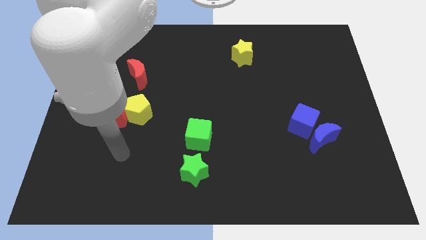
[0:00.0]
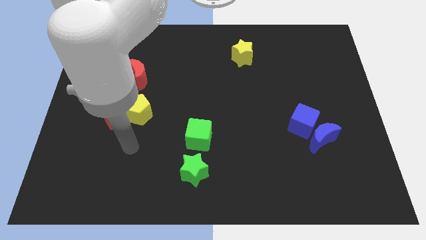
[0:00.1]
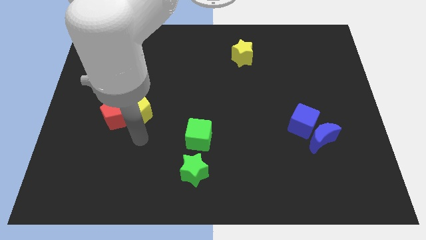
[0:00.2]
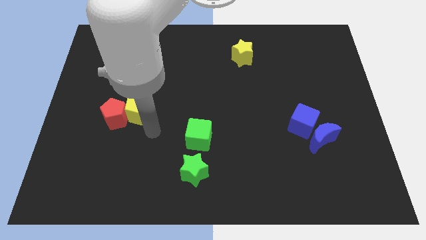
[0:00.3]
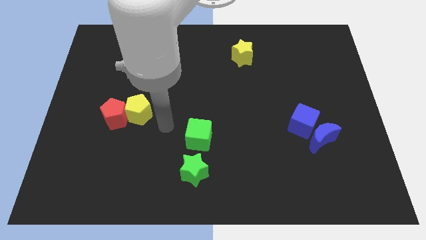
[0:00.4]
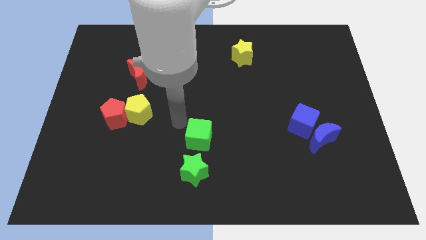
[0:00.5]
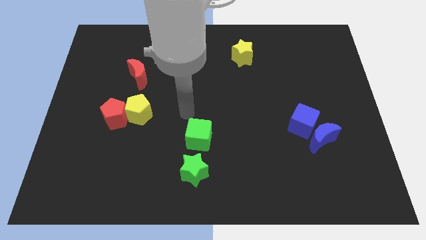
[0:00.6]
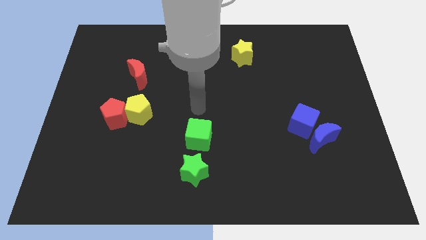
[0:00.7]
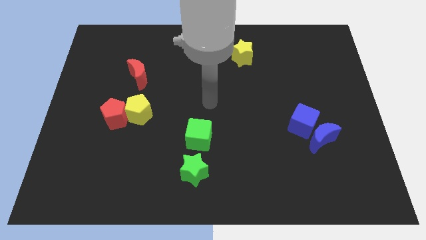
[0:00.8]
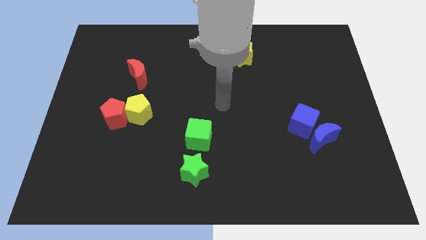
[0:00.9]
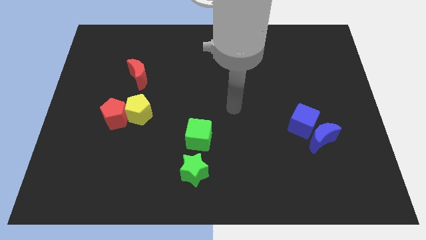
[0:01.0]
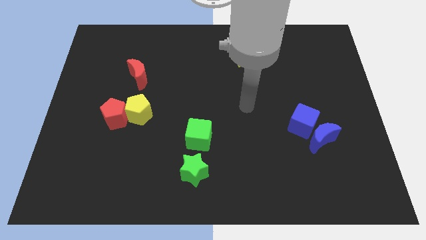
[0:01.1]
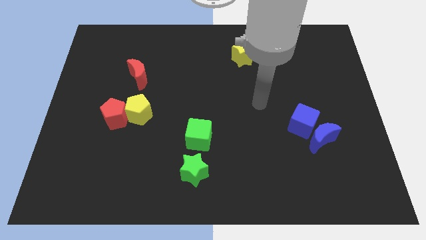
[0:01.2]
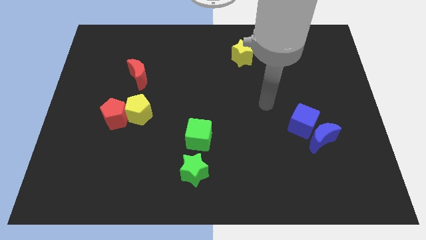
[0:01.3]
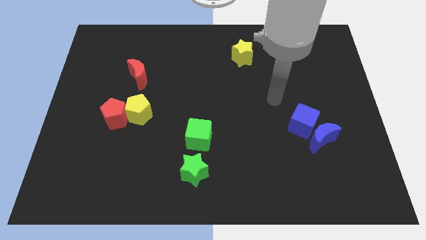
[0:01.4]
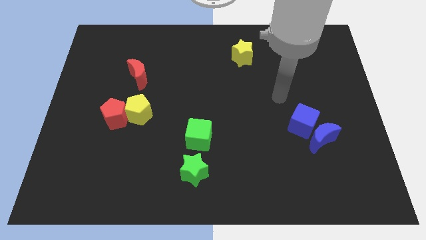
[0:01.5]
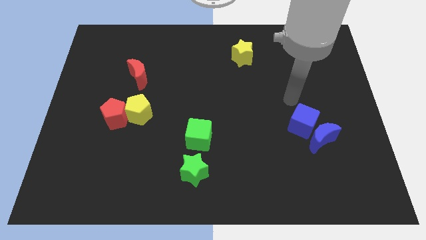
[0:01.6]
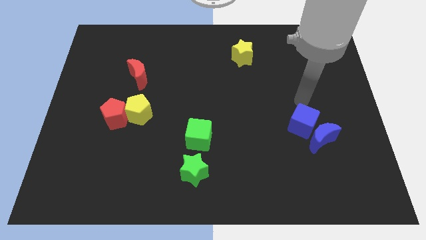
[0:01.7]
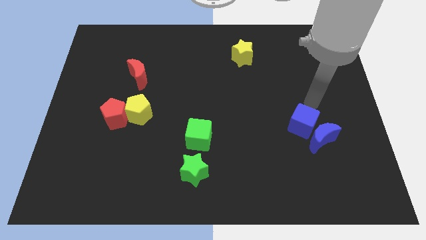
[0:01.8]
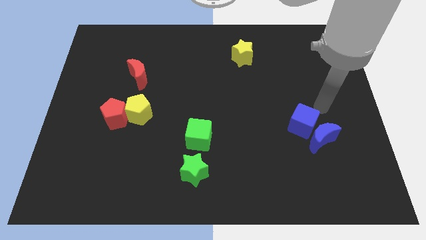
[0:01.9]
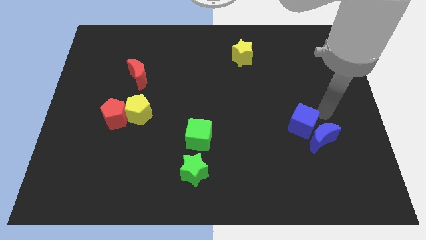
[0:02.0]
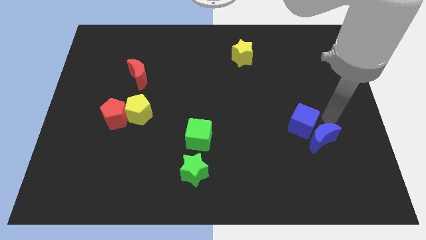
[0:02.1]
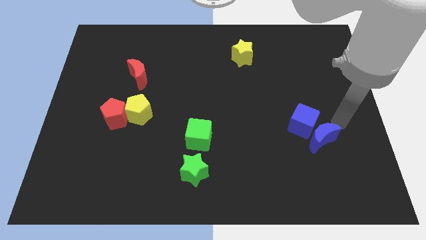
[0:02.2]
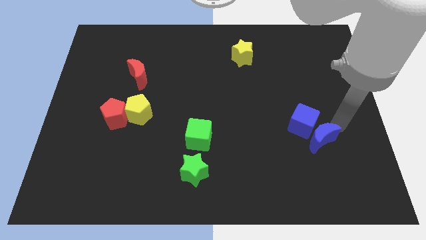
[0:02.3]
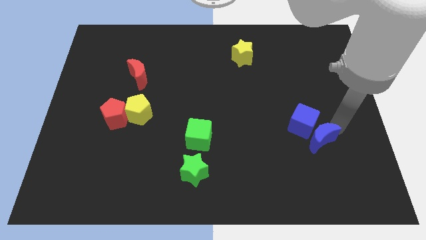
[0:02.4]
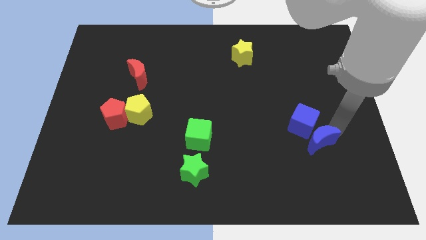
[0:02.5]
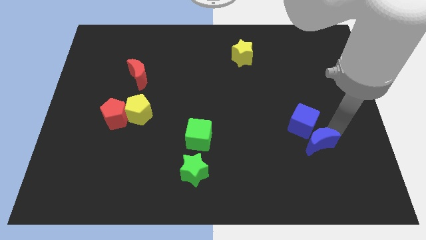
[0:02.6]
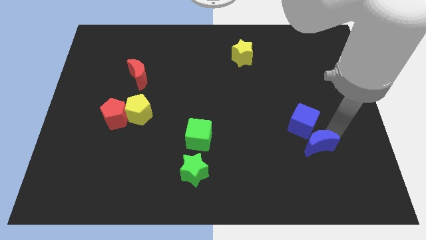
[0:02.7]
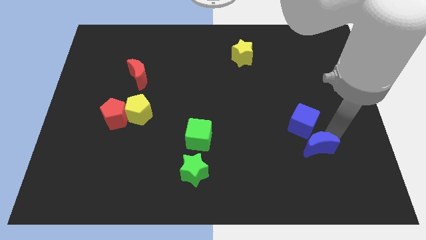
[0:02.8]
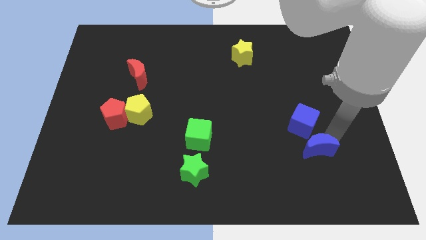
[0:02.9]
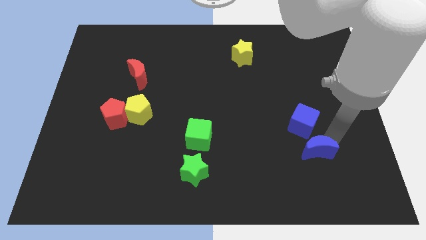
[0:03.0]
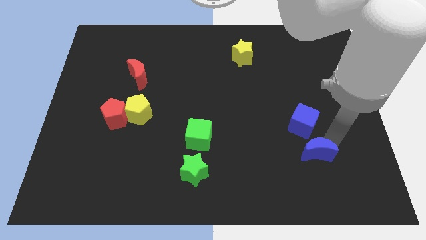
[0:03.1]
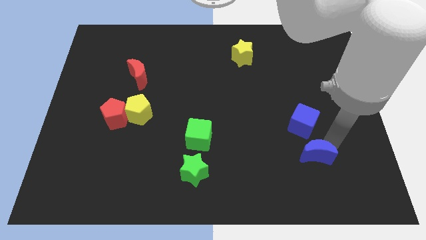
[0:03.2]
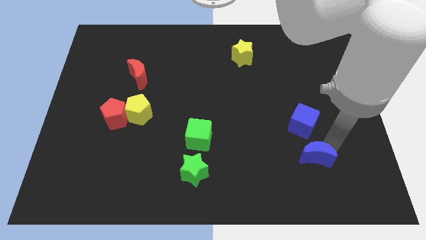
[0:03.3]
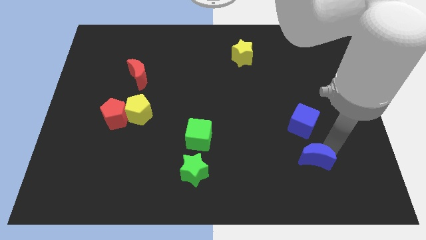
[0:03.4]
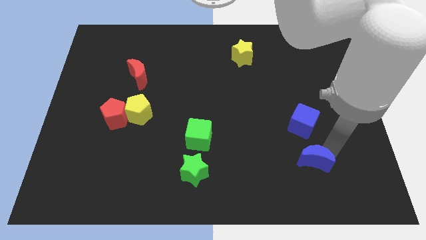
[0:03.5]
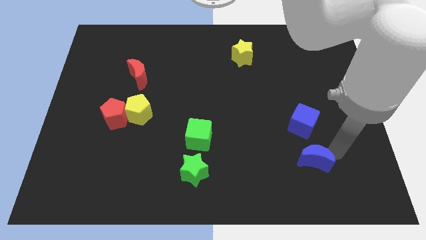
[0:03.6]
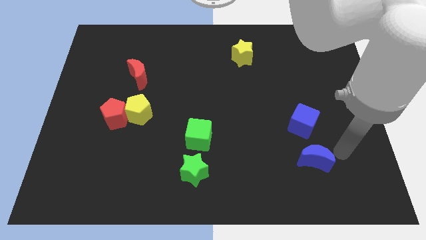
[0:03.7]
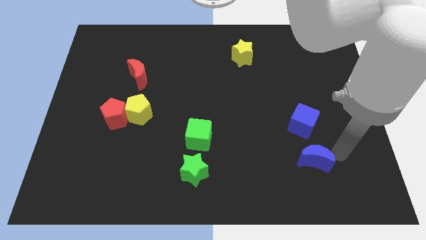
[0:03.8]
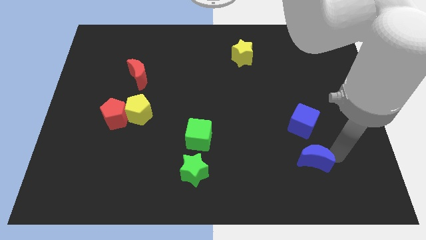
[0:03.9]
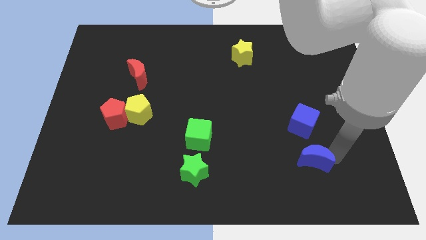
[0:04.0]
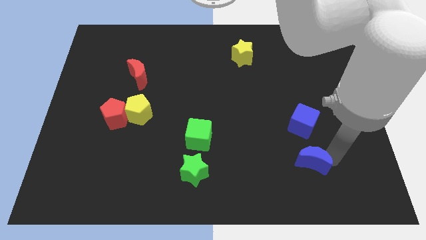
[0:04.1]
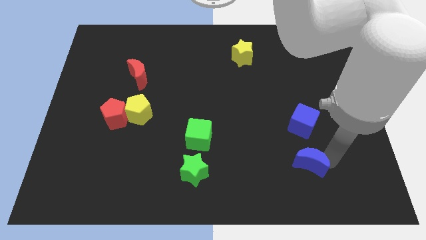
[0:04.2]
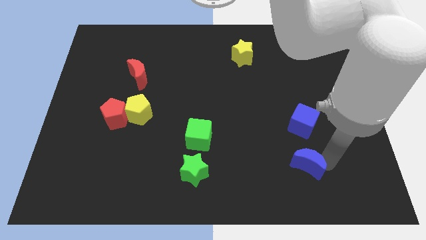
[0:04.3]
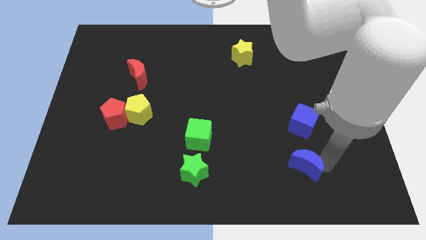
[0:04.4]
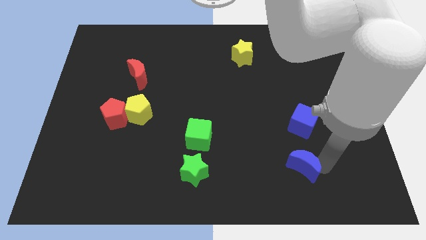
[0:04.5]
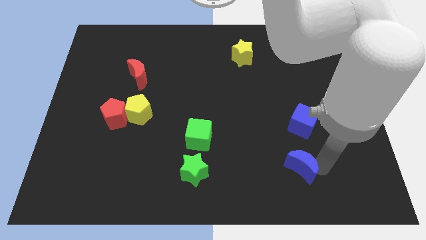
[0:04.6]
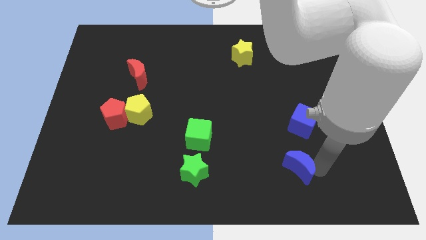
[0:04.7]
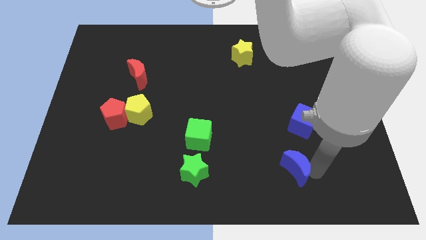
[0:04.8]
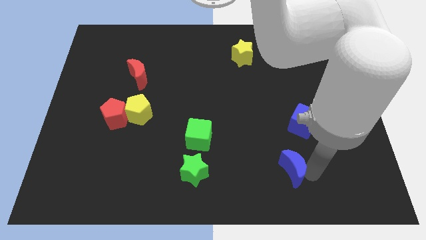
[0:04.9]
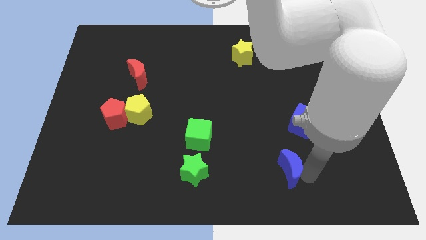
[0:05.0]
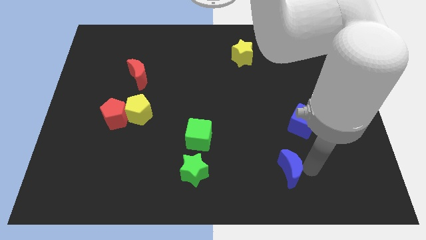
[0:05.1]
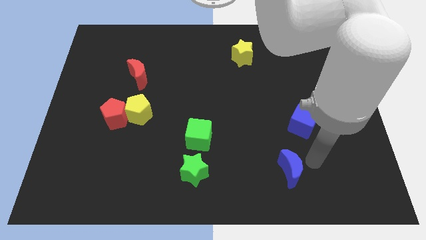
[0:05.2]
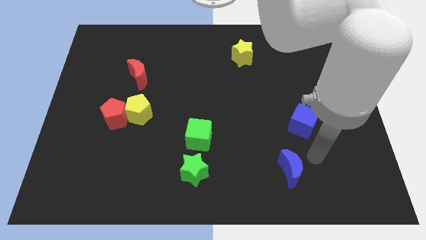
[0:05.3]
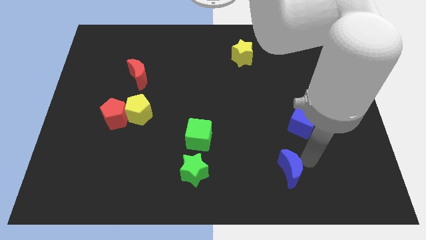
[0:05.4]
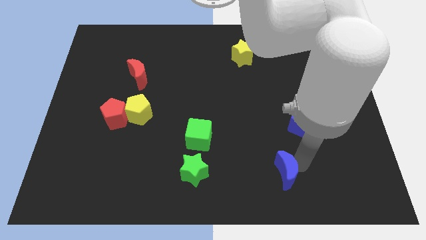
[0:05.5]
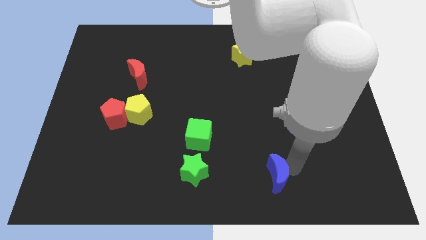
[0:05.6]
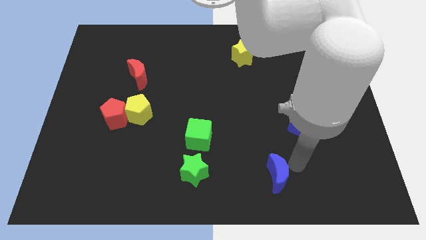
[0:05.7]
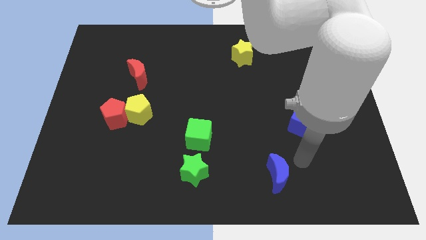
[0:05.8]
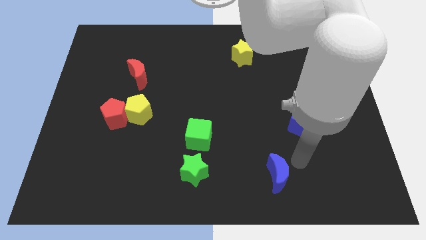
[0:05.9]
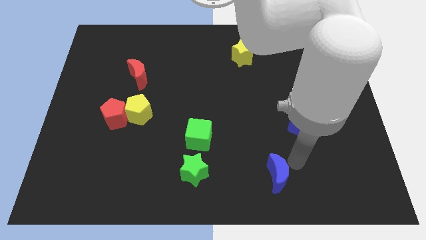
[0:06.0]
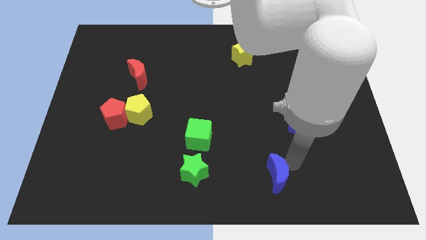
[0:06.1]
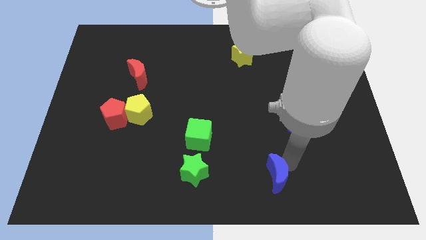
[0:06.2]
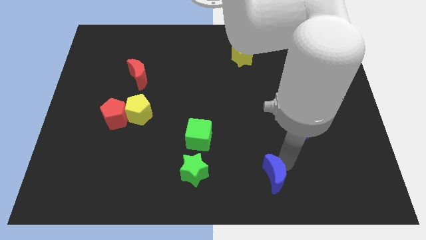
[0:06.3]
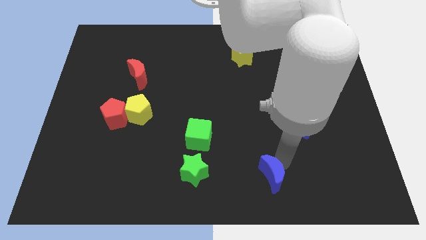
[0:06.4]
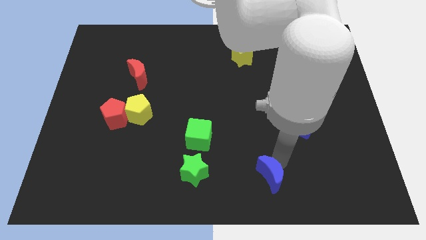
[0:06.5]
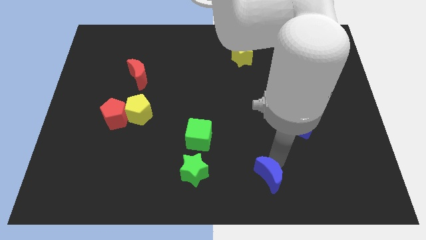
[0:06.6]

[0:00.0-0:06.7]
push the blue moon to the bottom
